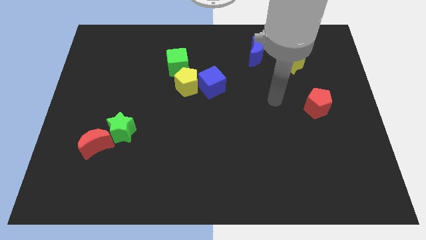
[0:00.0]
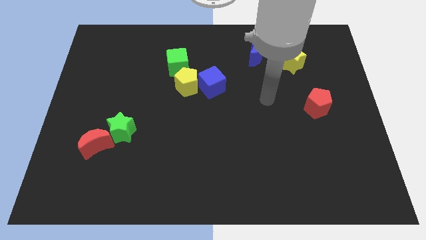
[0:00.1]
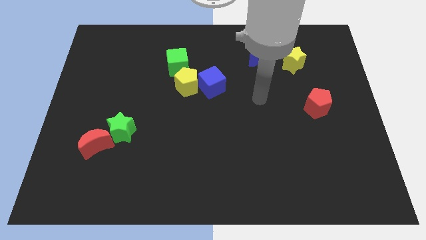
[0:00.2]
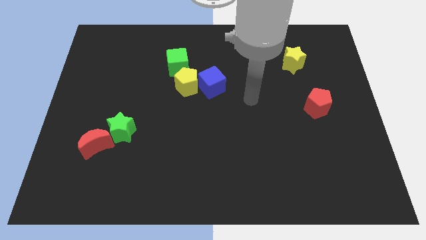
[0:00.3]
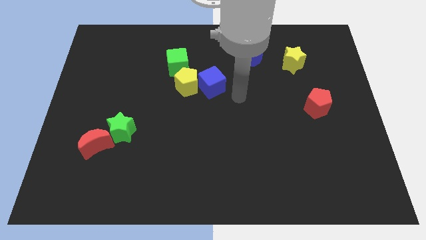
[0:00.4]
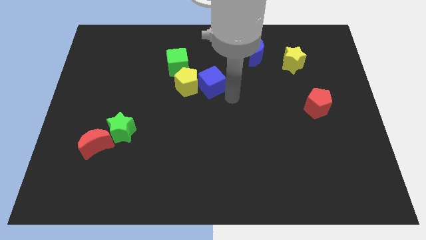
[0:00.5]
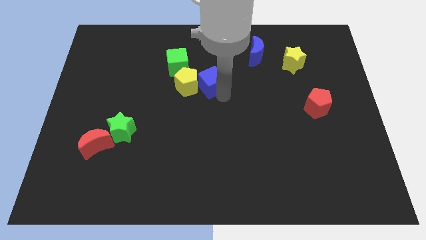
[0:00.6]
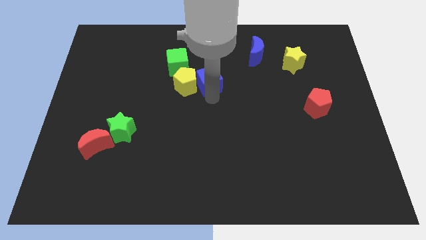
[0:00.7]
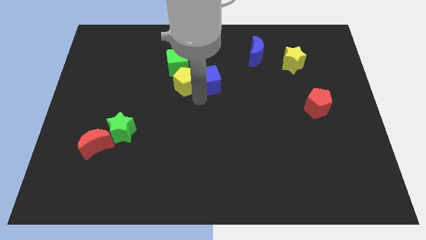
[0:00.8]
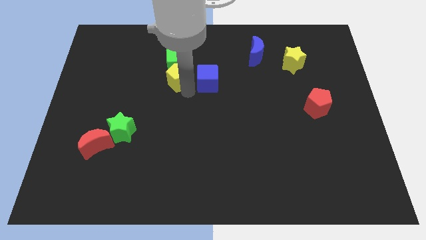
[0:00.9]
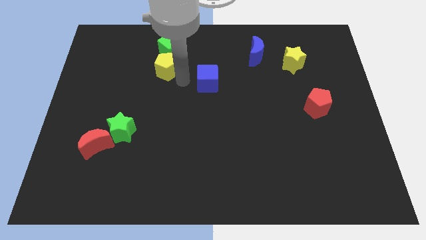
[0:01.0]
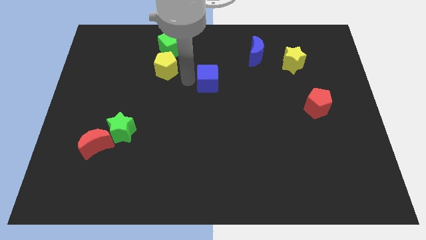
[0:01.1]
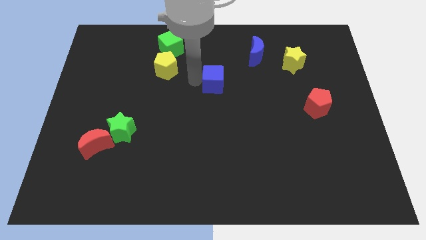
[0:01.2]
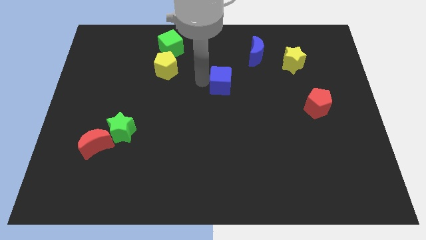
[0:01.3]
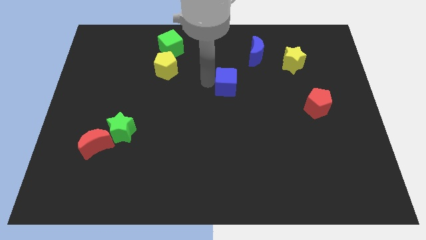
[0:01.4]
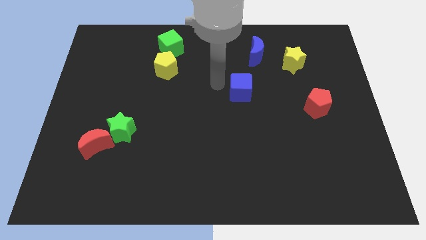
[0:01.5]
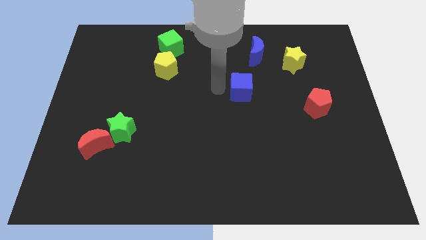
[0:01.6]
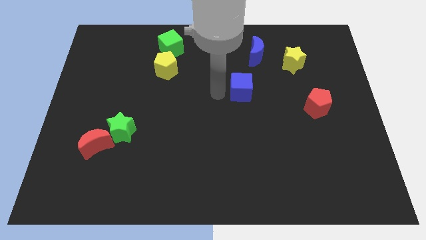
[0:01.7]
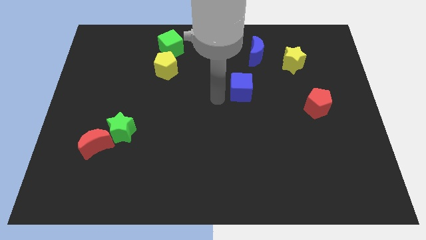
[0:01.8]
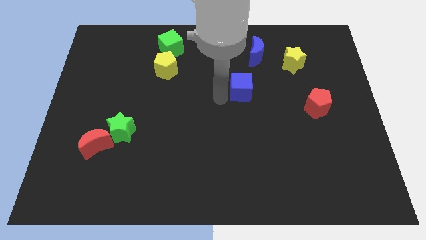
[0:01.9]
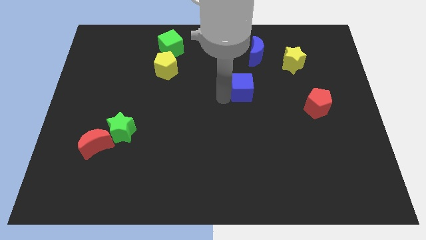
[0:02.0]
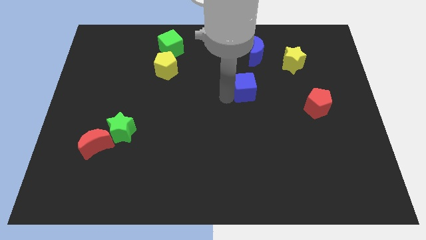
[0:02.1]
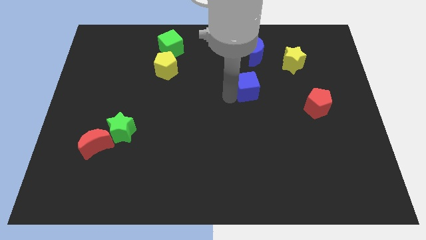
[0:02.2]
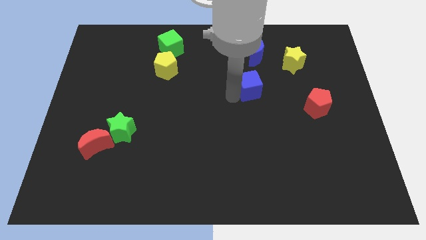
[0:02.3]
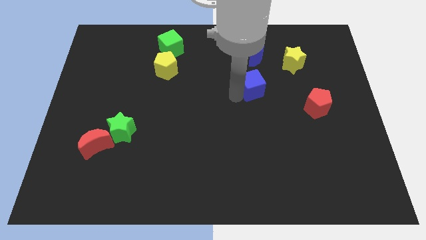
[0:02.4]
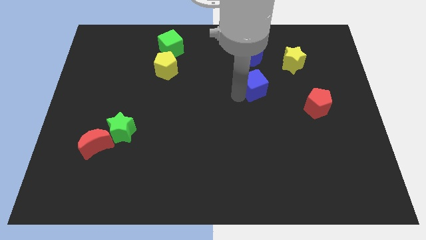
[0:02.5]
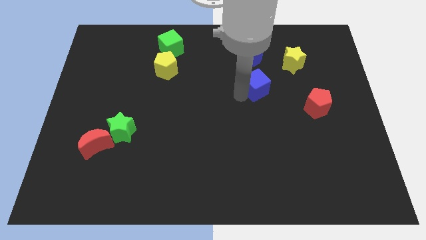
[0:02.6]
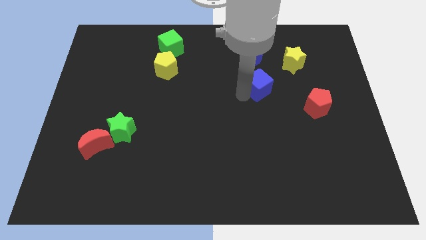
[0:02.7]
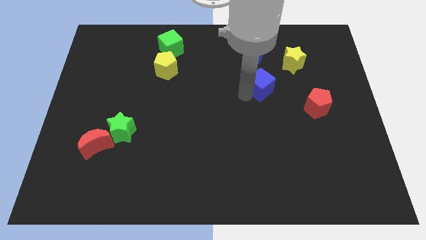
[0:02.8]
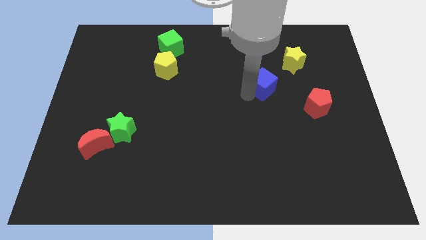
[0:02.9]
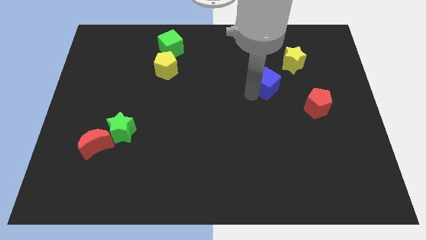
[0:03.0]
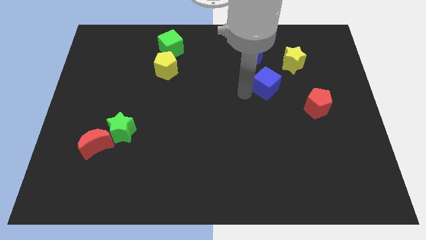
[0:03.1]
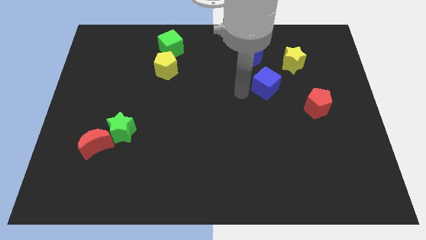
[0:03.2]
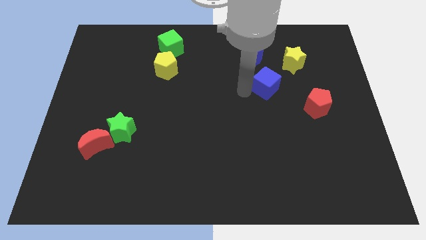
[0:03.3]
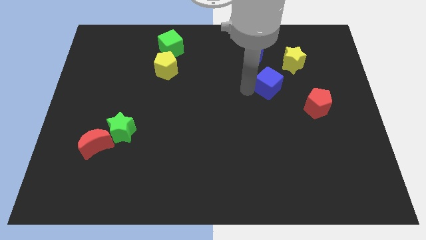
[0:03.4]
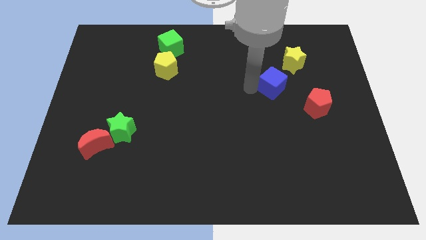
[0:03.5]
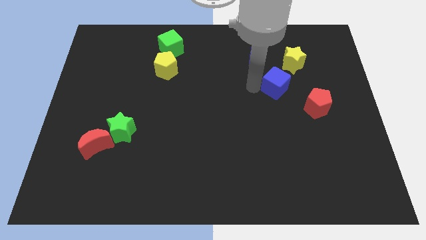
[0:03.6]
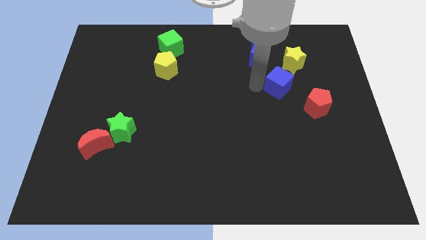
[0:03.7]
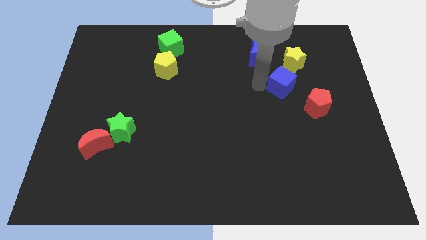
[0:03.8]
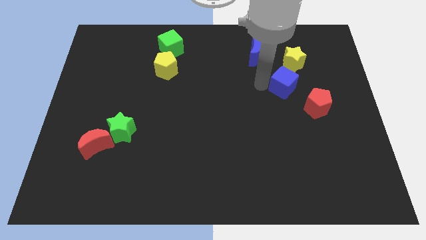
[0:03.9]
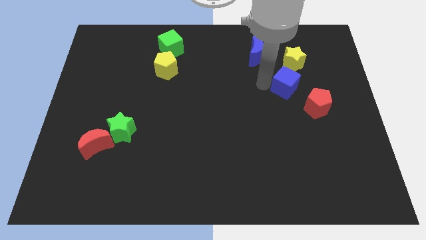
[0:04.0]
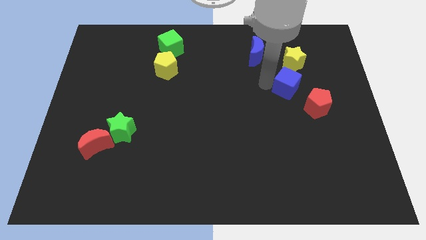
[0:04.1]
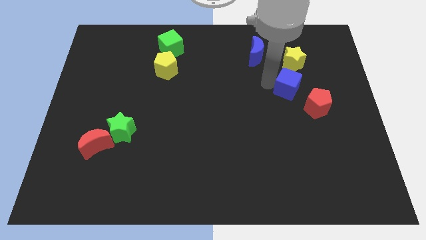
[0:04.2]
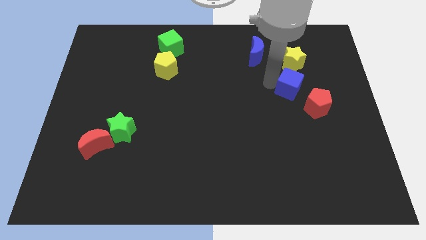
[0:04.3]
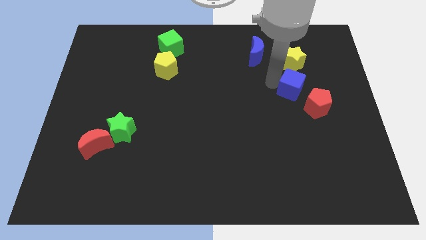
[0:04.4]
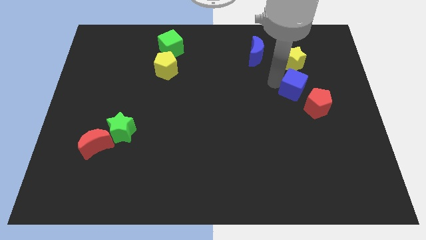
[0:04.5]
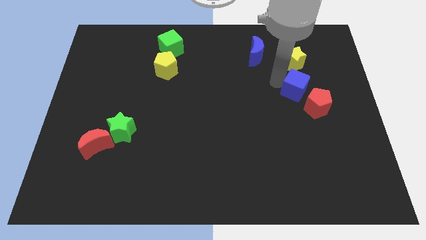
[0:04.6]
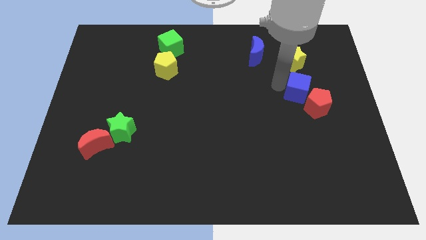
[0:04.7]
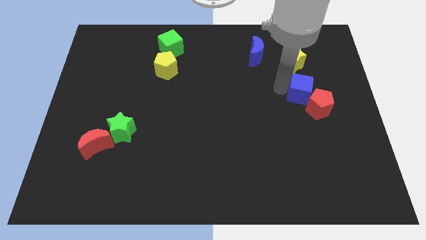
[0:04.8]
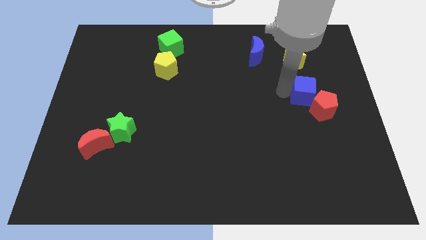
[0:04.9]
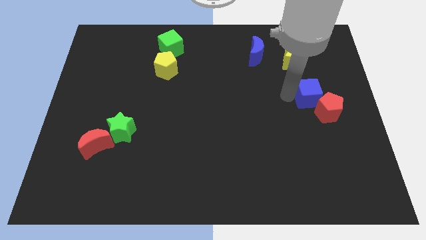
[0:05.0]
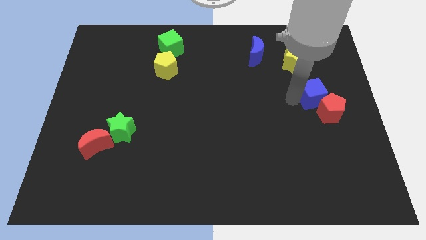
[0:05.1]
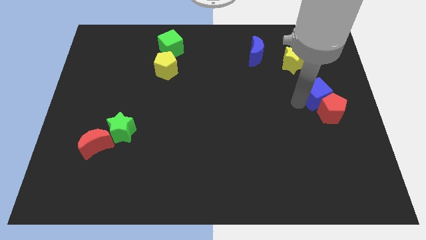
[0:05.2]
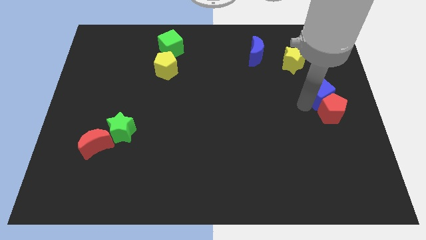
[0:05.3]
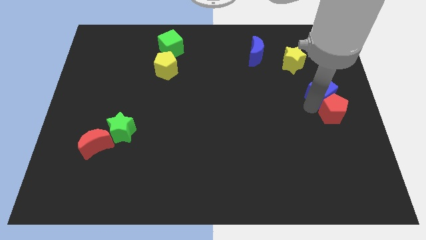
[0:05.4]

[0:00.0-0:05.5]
slide the blue cube diagonally down and to the right of the yellow star

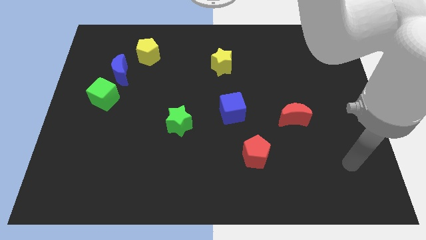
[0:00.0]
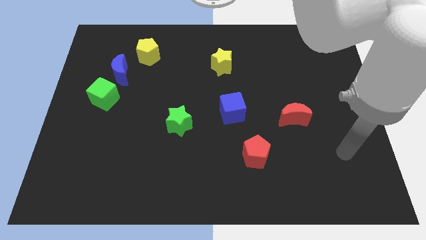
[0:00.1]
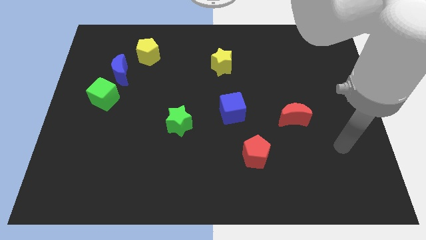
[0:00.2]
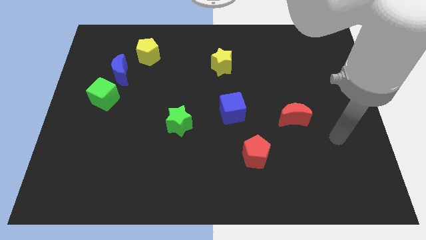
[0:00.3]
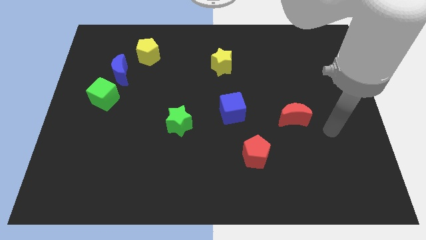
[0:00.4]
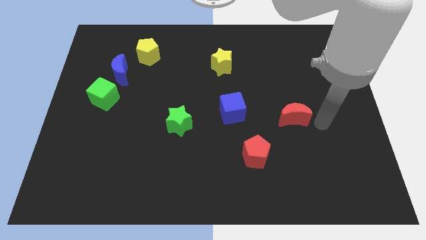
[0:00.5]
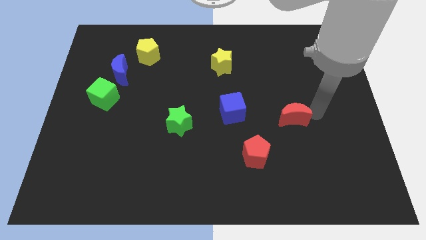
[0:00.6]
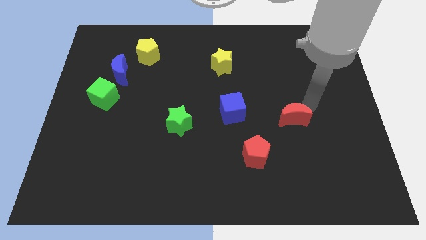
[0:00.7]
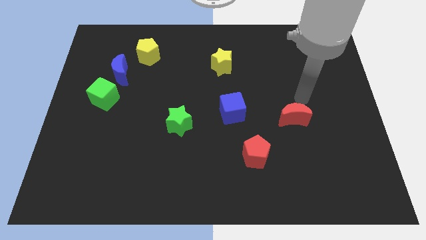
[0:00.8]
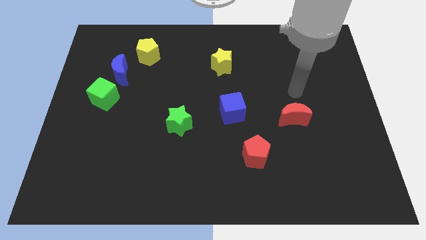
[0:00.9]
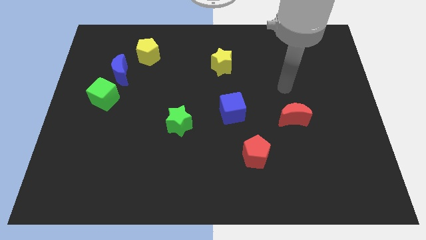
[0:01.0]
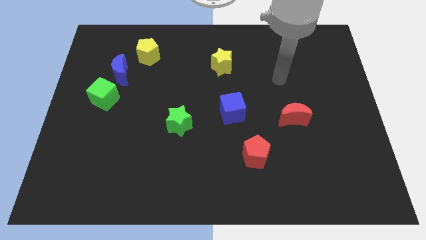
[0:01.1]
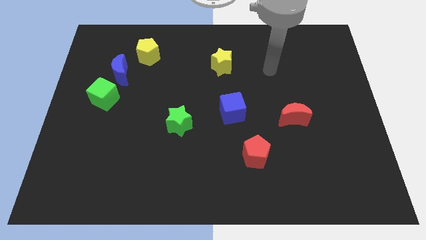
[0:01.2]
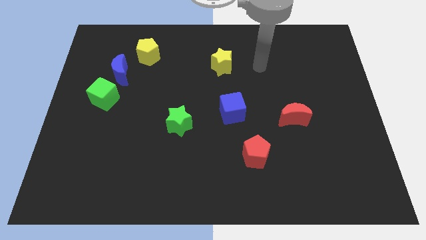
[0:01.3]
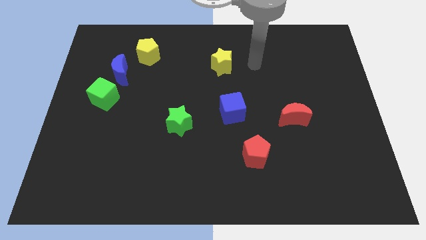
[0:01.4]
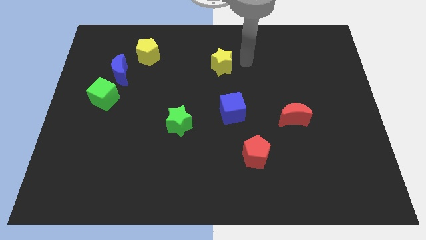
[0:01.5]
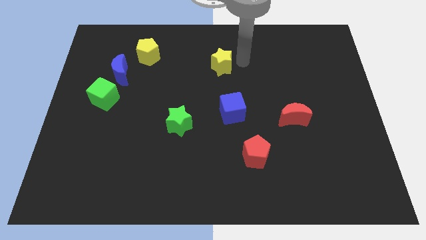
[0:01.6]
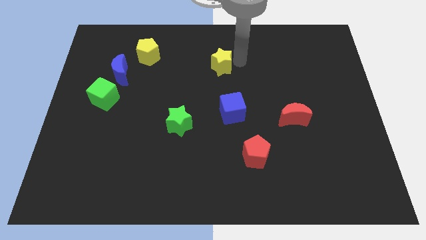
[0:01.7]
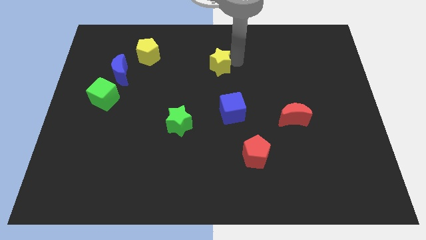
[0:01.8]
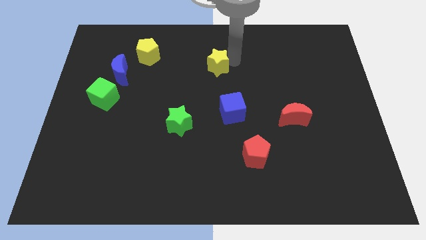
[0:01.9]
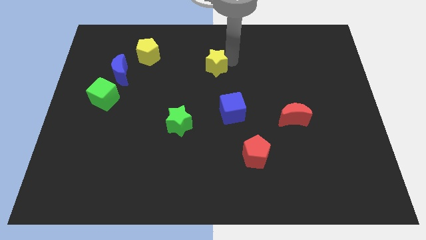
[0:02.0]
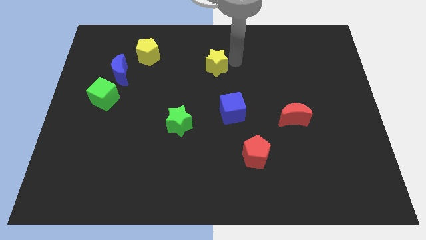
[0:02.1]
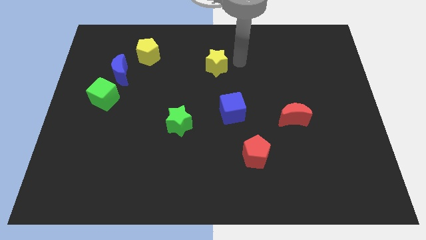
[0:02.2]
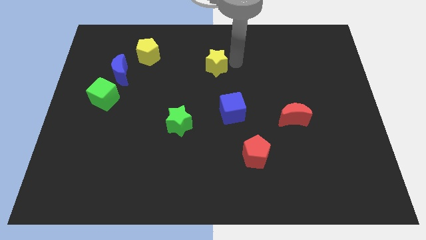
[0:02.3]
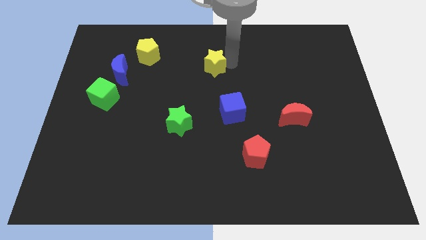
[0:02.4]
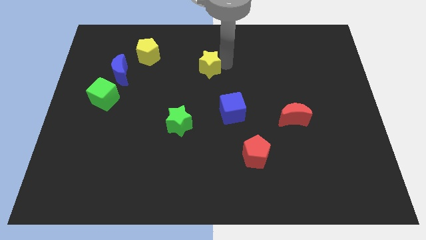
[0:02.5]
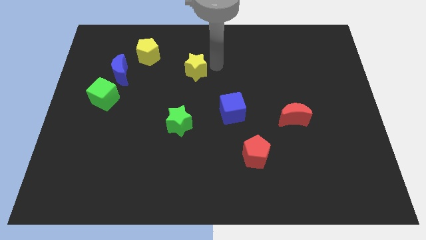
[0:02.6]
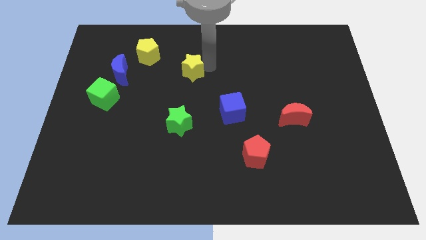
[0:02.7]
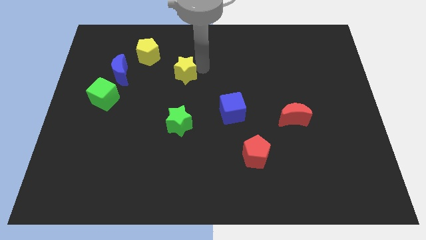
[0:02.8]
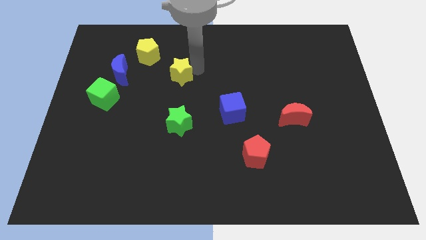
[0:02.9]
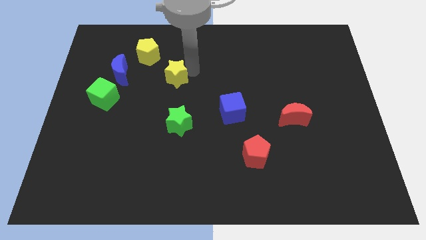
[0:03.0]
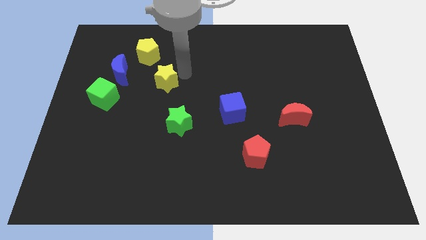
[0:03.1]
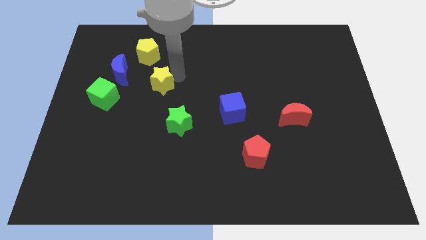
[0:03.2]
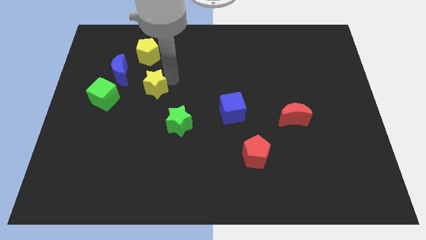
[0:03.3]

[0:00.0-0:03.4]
push the yellow star to the bottom right of the blue moon
